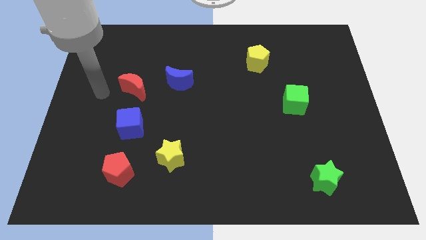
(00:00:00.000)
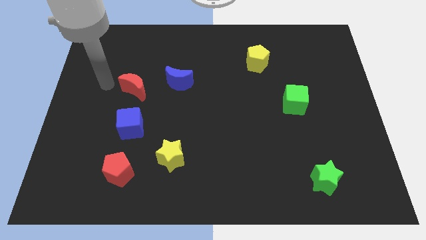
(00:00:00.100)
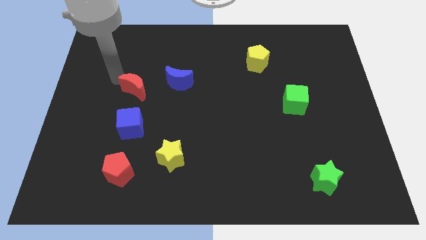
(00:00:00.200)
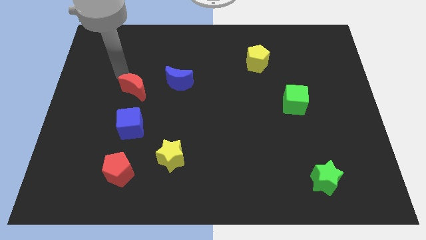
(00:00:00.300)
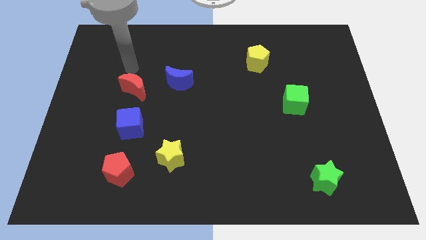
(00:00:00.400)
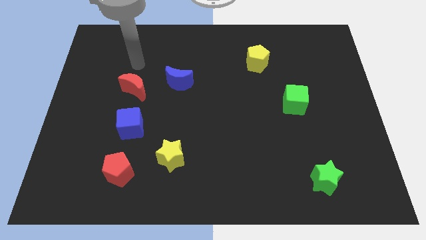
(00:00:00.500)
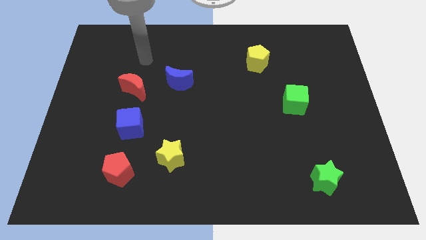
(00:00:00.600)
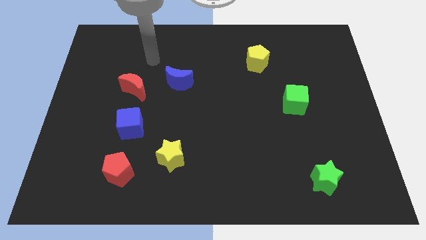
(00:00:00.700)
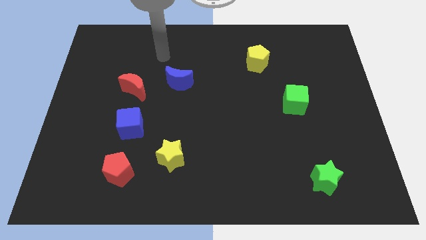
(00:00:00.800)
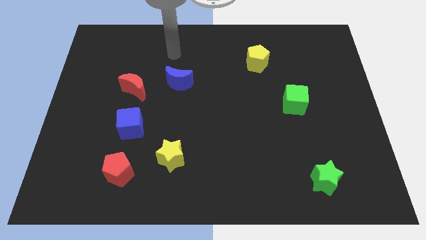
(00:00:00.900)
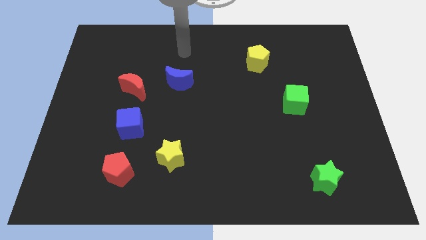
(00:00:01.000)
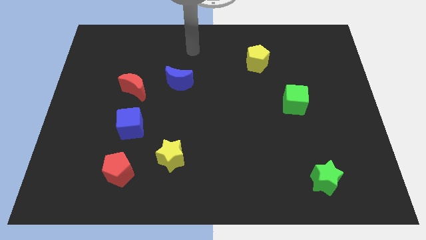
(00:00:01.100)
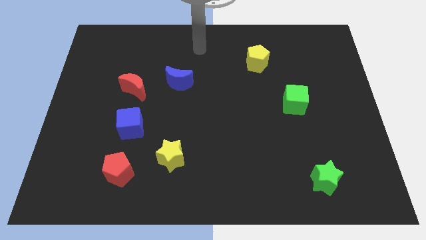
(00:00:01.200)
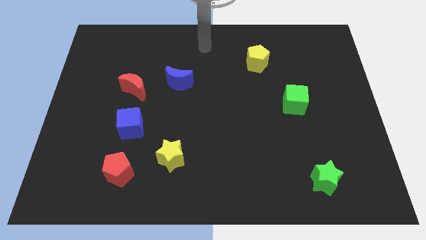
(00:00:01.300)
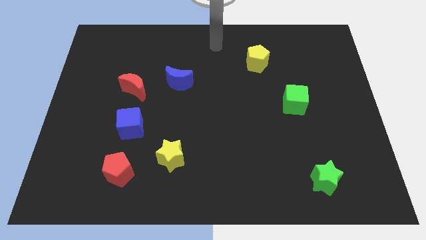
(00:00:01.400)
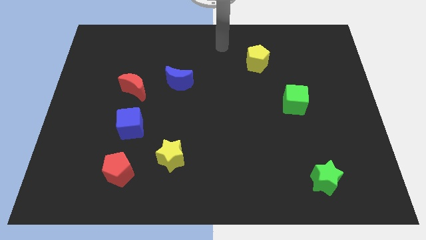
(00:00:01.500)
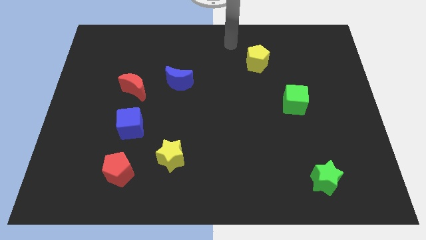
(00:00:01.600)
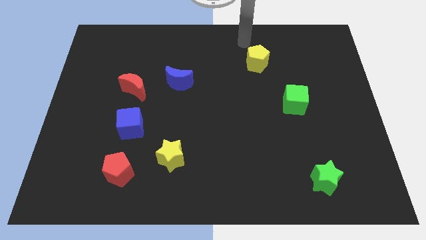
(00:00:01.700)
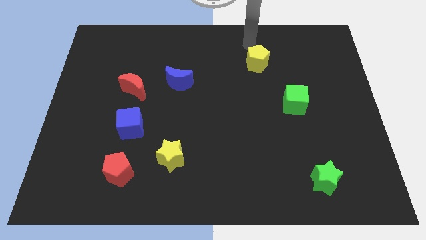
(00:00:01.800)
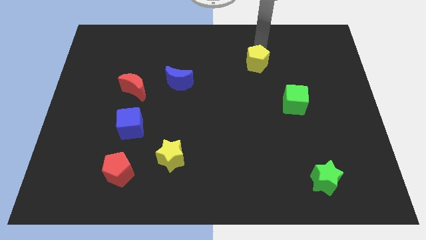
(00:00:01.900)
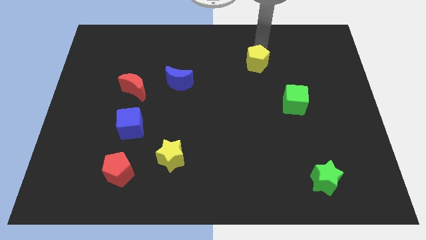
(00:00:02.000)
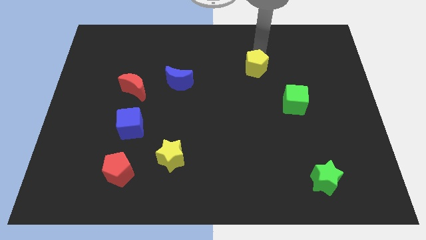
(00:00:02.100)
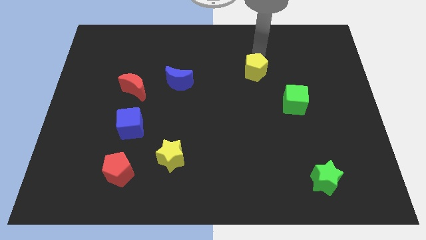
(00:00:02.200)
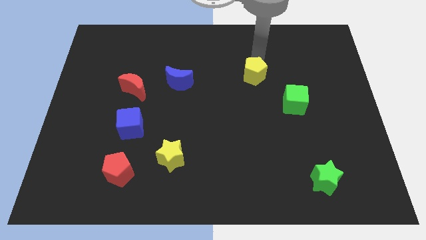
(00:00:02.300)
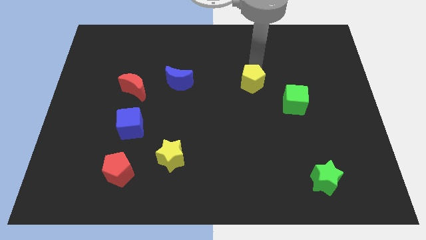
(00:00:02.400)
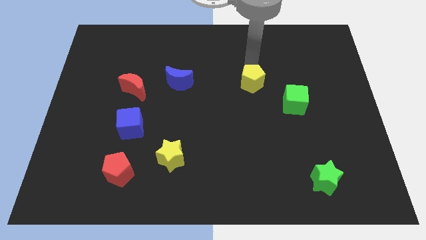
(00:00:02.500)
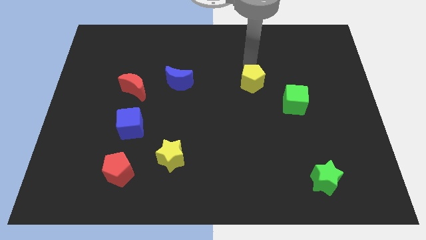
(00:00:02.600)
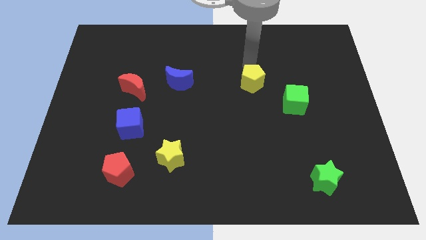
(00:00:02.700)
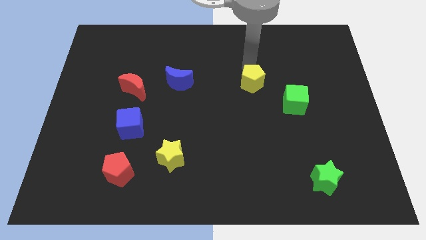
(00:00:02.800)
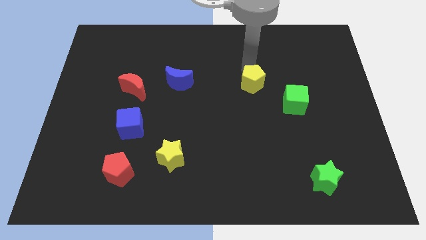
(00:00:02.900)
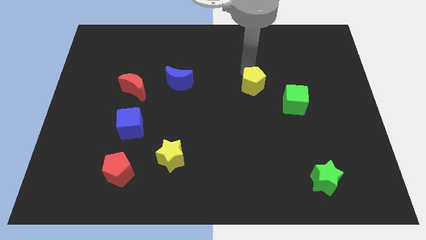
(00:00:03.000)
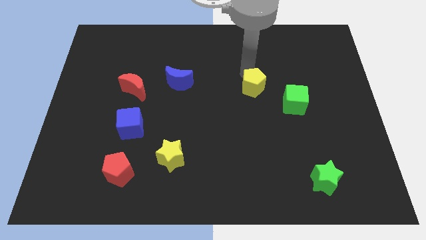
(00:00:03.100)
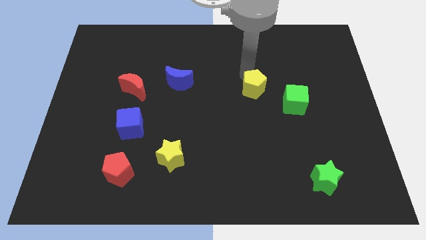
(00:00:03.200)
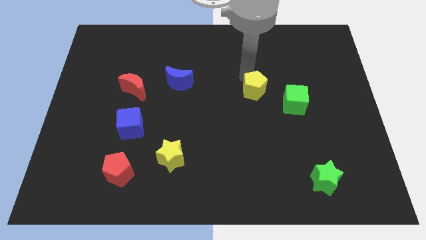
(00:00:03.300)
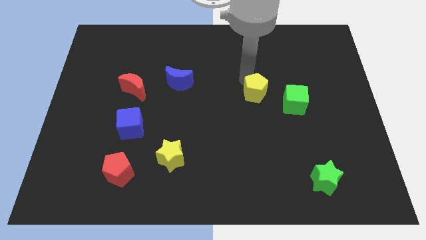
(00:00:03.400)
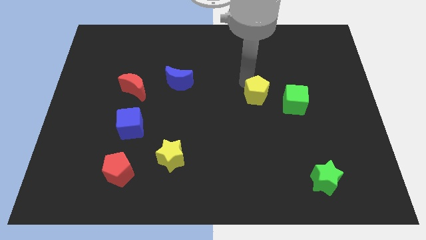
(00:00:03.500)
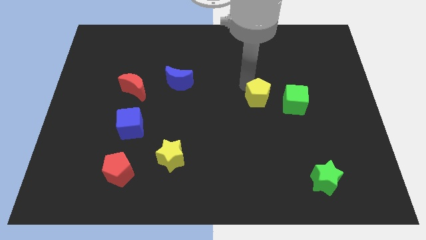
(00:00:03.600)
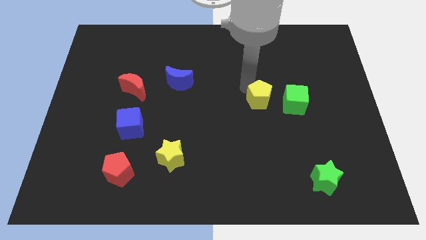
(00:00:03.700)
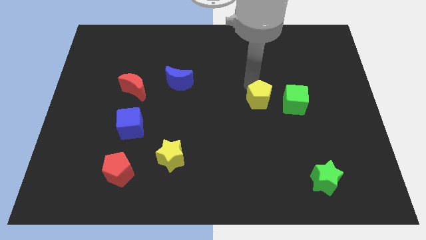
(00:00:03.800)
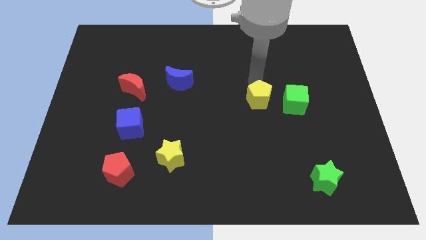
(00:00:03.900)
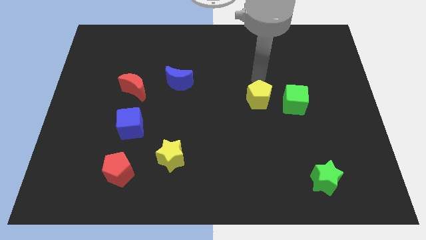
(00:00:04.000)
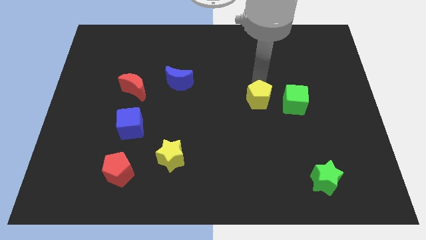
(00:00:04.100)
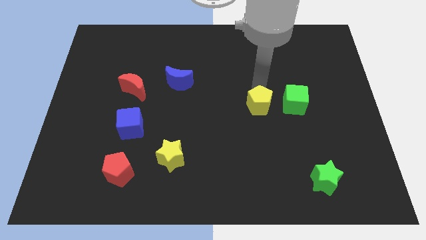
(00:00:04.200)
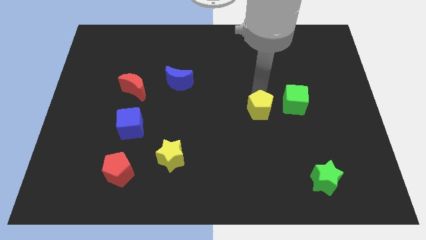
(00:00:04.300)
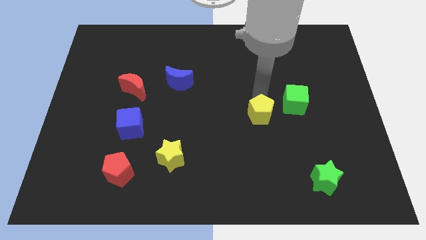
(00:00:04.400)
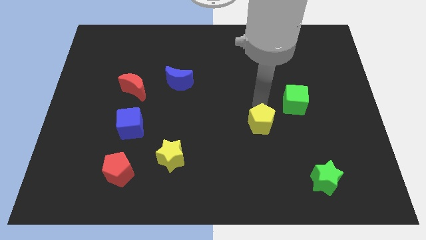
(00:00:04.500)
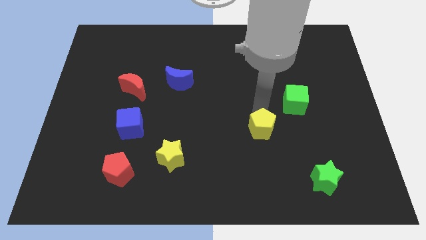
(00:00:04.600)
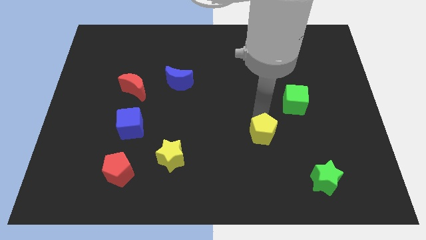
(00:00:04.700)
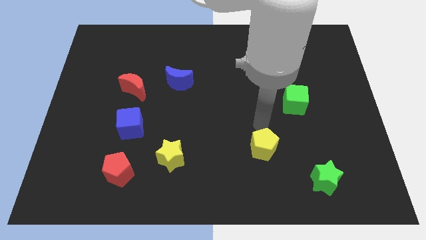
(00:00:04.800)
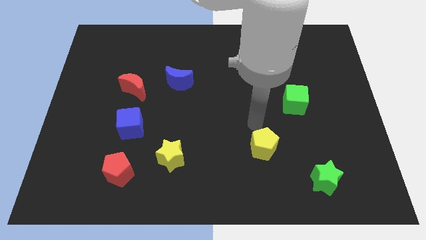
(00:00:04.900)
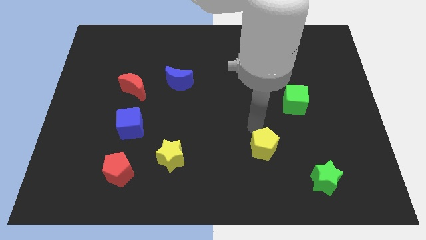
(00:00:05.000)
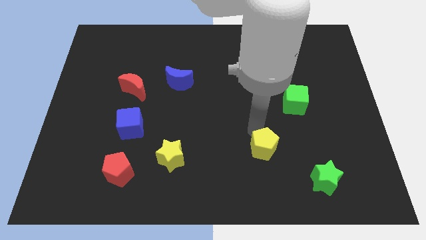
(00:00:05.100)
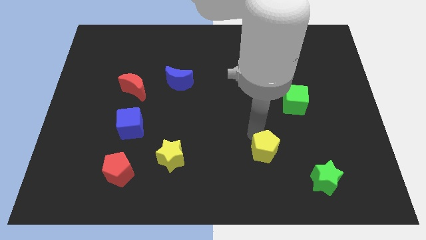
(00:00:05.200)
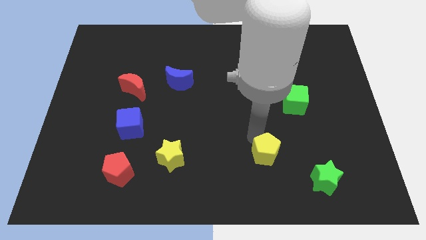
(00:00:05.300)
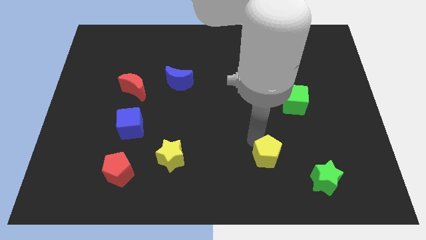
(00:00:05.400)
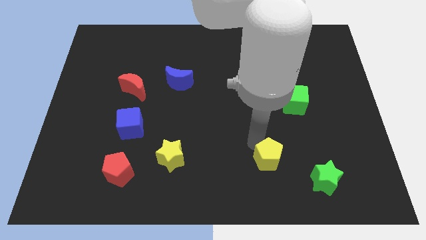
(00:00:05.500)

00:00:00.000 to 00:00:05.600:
push the yellow pentagon to the left side of the green star

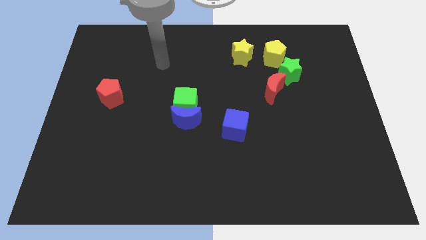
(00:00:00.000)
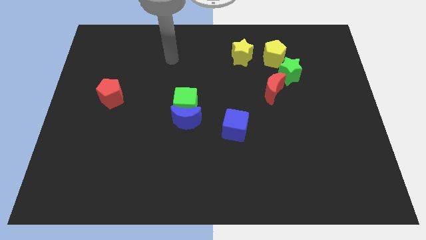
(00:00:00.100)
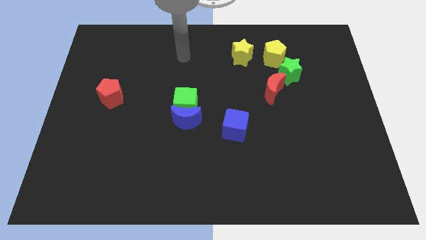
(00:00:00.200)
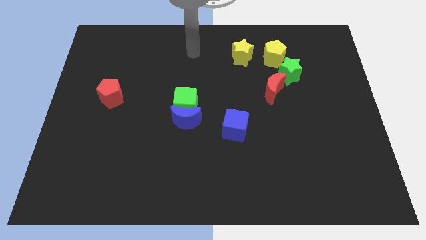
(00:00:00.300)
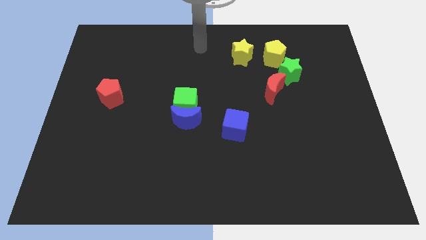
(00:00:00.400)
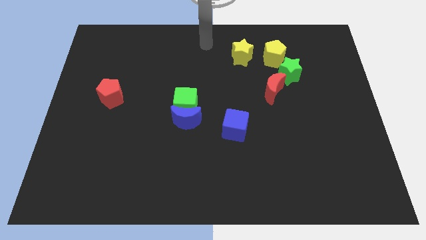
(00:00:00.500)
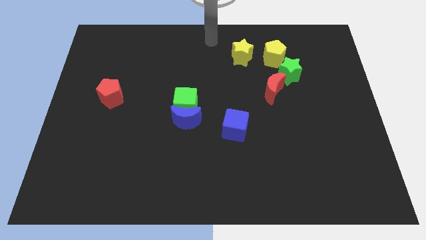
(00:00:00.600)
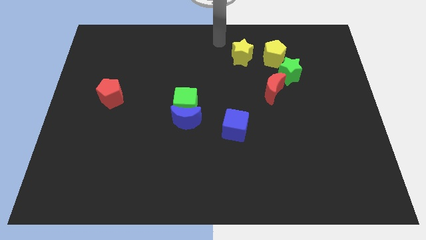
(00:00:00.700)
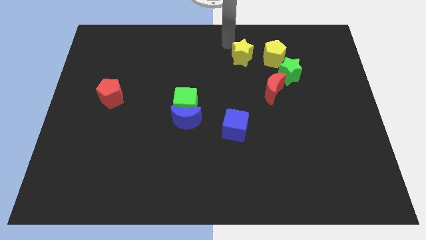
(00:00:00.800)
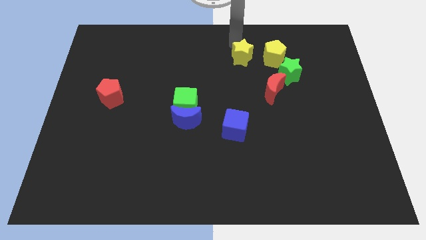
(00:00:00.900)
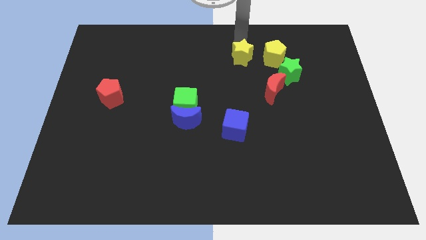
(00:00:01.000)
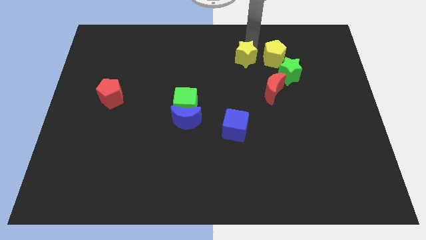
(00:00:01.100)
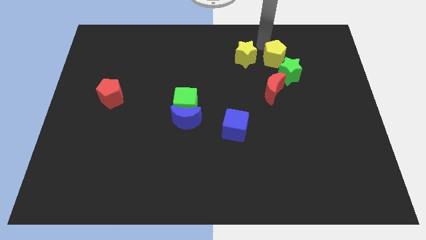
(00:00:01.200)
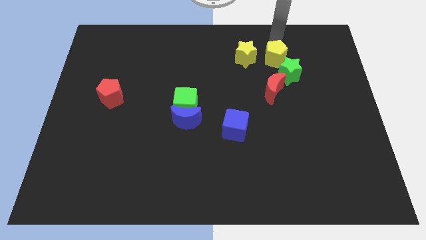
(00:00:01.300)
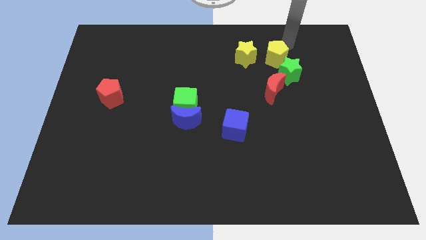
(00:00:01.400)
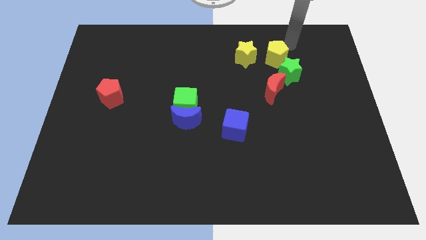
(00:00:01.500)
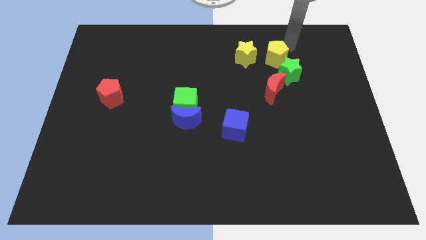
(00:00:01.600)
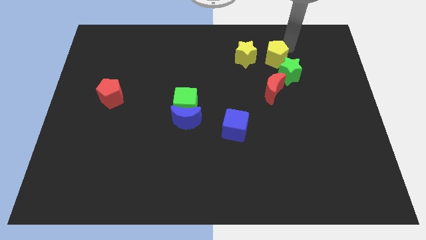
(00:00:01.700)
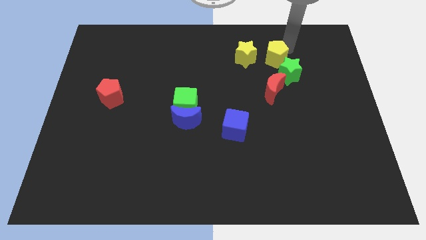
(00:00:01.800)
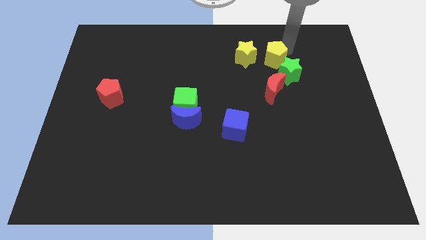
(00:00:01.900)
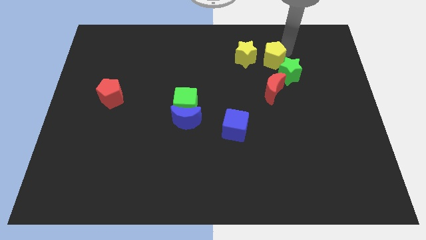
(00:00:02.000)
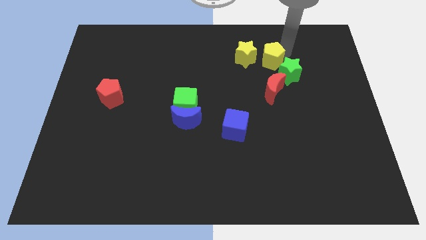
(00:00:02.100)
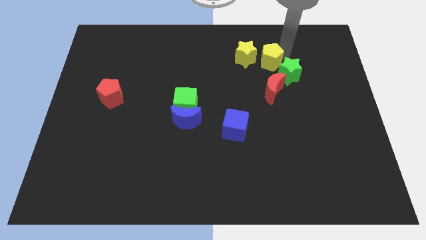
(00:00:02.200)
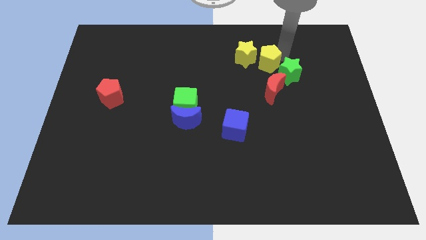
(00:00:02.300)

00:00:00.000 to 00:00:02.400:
slide the yellow pentagon just left of the green star
